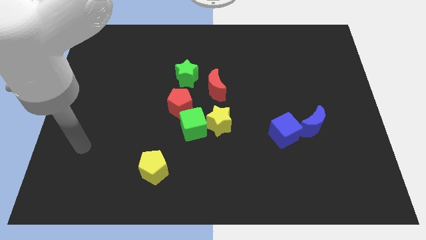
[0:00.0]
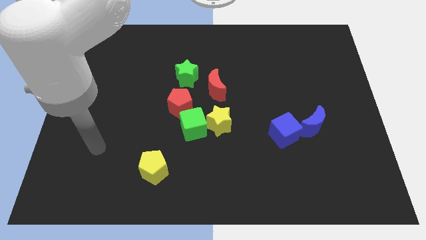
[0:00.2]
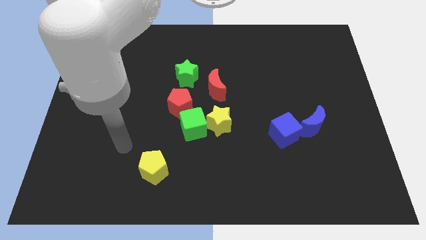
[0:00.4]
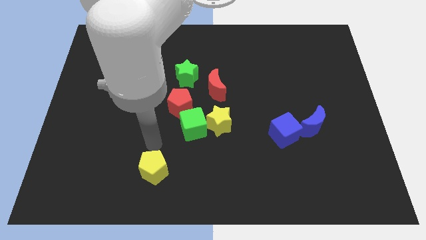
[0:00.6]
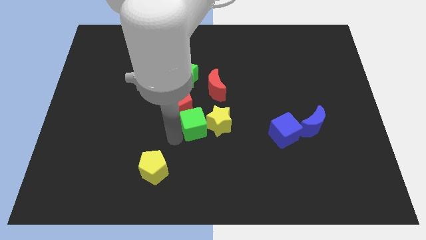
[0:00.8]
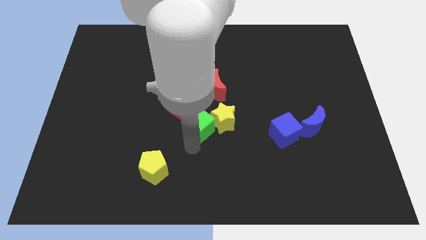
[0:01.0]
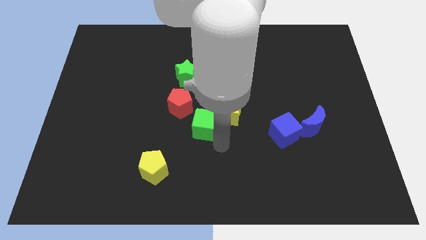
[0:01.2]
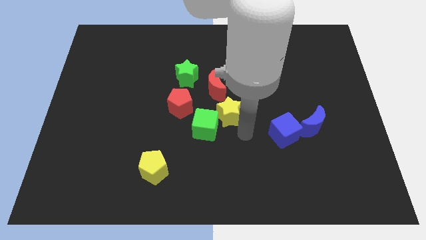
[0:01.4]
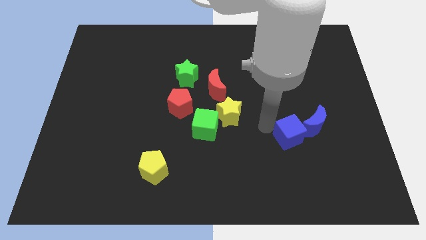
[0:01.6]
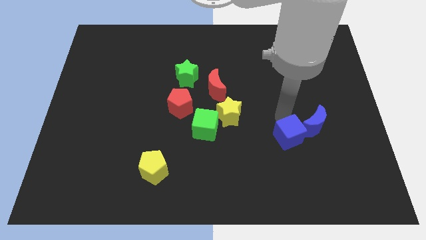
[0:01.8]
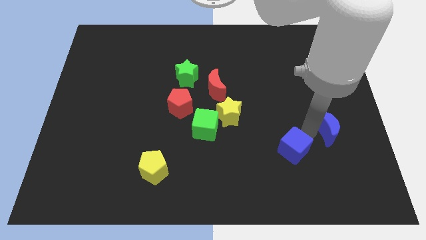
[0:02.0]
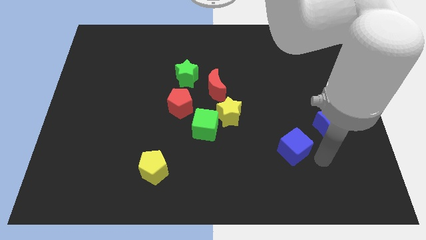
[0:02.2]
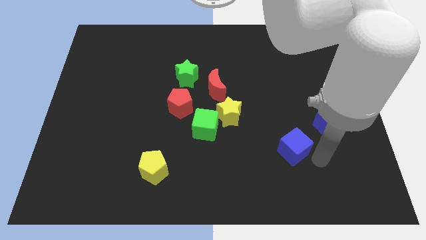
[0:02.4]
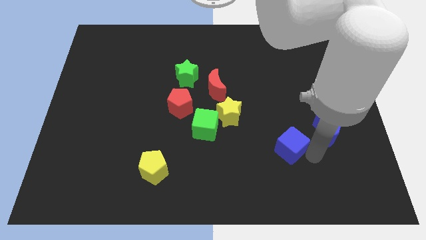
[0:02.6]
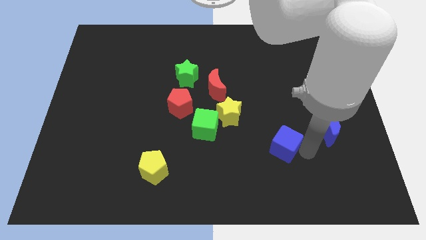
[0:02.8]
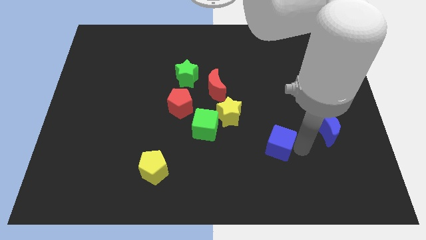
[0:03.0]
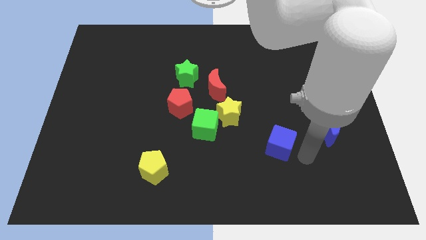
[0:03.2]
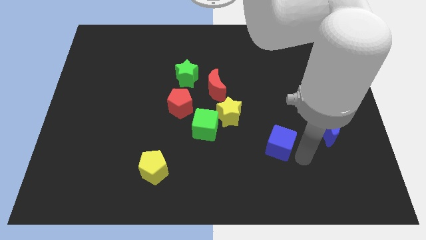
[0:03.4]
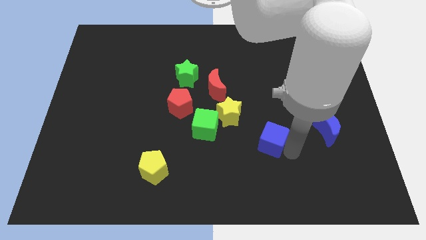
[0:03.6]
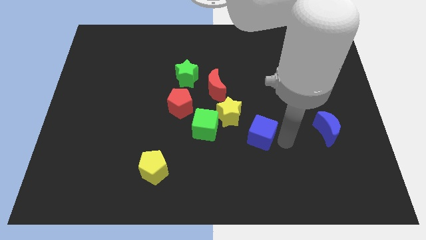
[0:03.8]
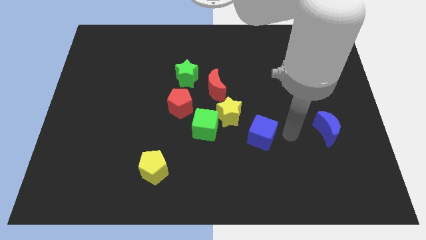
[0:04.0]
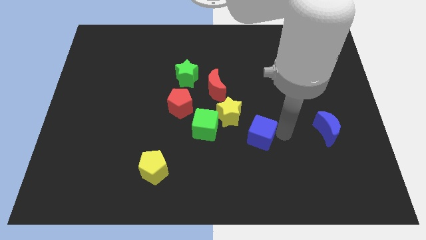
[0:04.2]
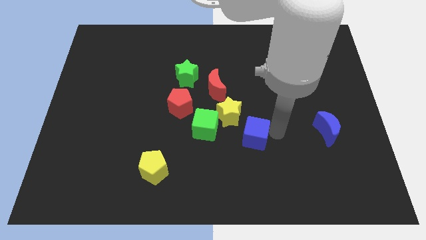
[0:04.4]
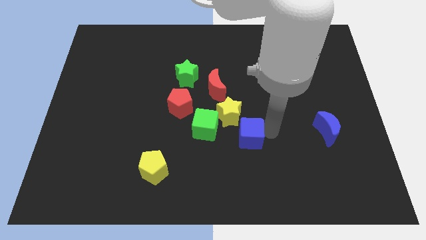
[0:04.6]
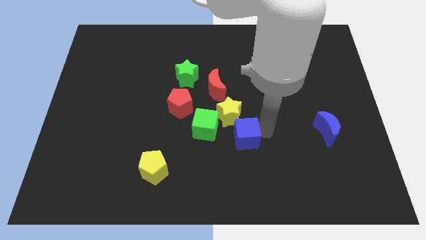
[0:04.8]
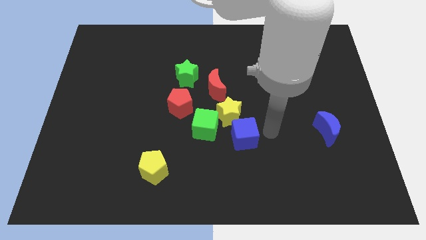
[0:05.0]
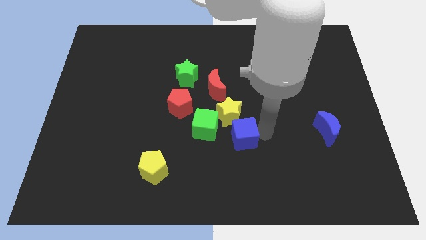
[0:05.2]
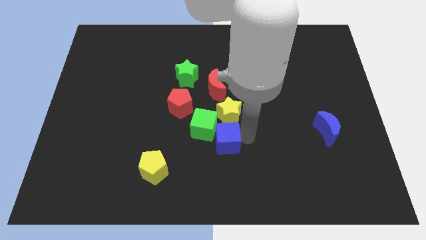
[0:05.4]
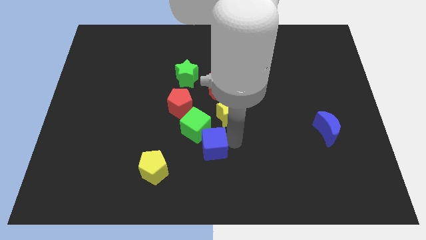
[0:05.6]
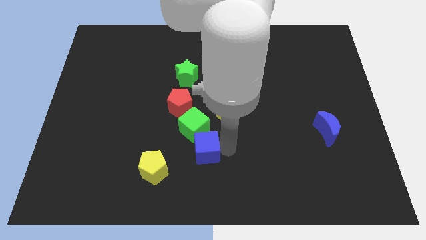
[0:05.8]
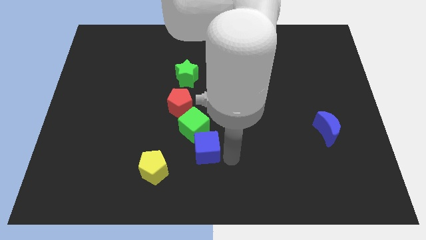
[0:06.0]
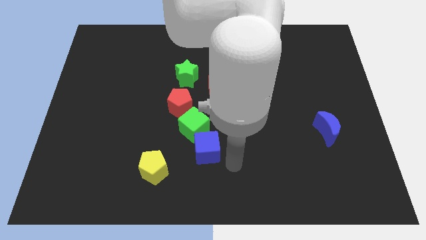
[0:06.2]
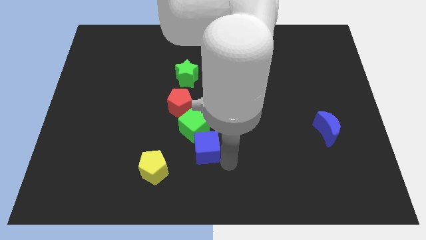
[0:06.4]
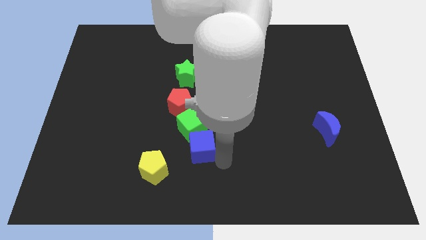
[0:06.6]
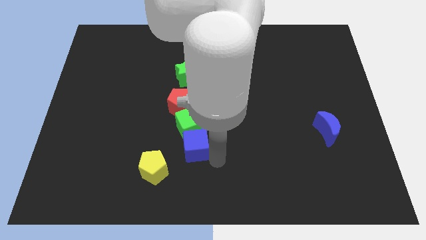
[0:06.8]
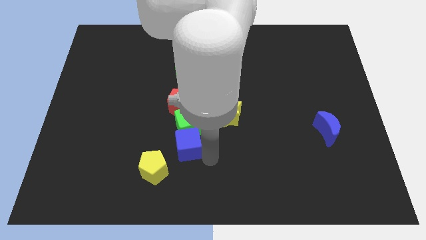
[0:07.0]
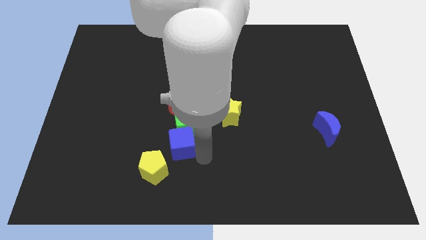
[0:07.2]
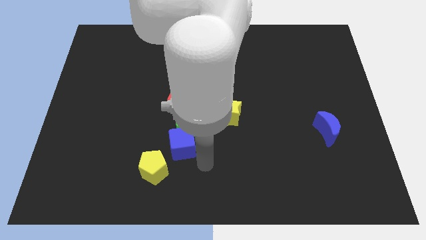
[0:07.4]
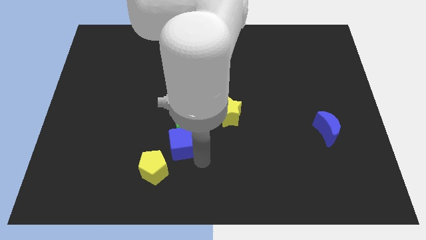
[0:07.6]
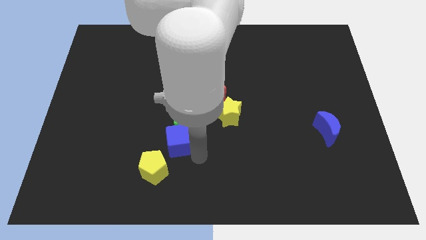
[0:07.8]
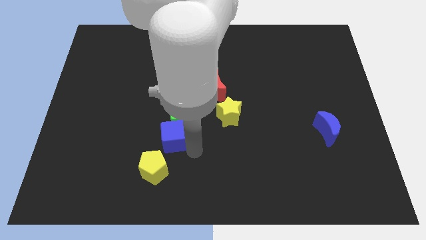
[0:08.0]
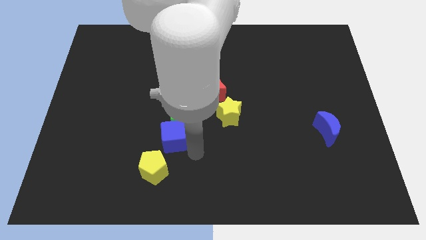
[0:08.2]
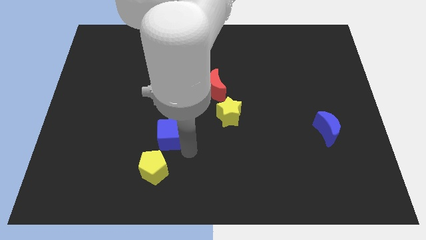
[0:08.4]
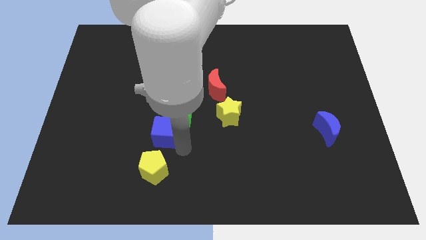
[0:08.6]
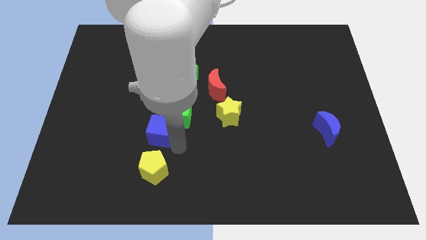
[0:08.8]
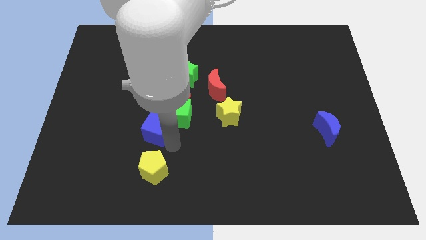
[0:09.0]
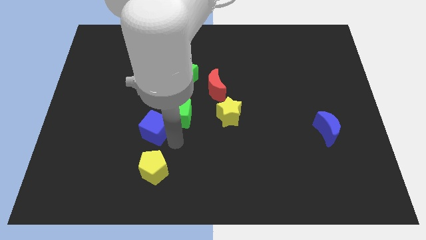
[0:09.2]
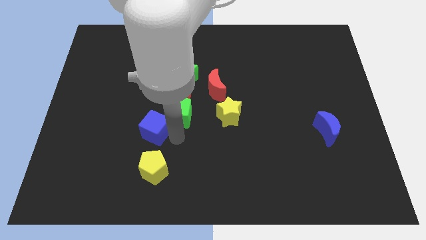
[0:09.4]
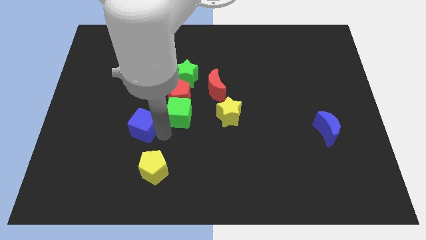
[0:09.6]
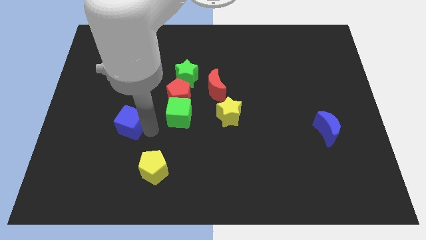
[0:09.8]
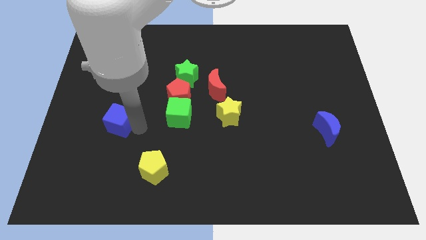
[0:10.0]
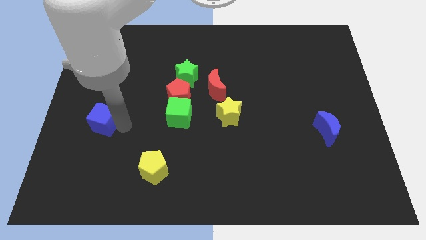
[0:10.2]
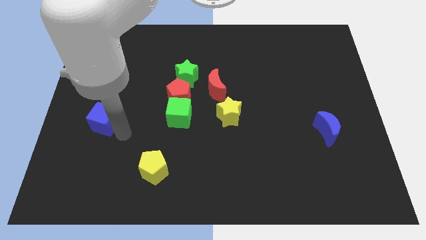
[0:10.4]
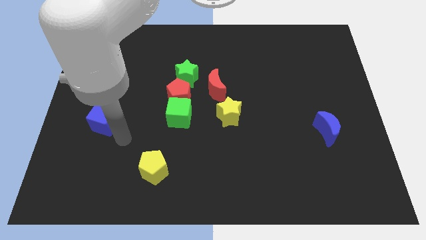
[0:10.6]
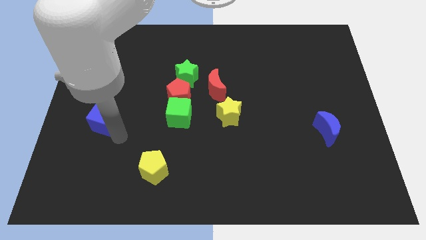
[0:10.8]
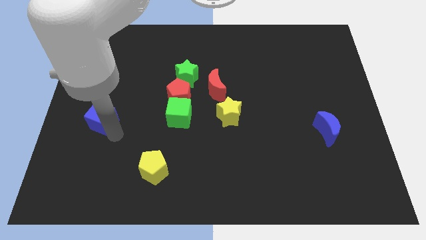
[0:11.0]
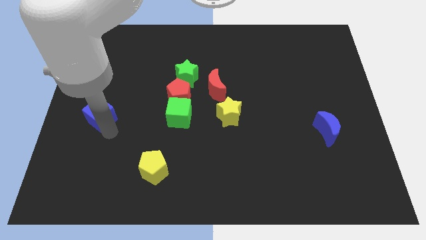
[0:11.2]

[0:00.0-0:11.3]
move the blue cube to the left side
